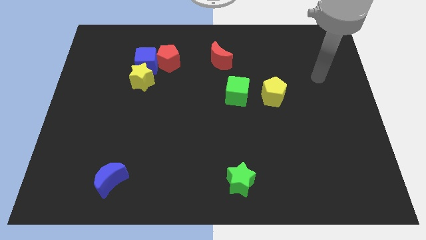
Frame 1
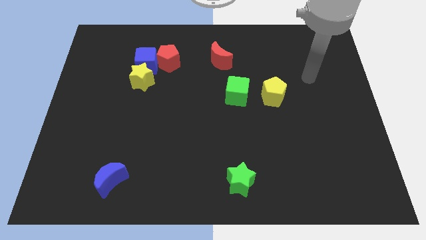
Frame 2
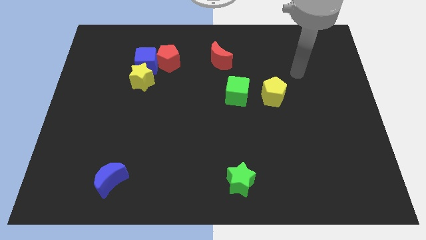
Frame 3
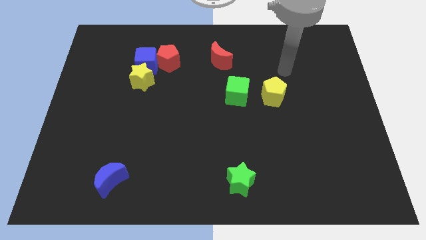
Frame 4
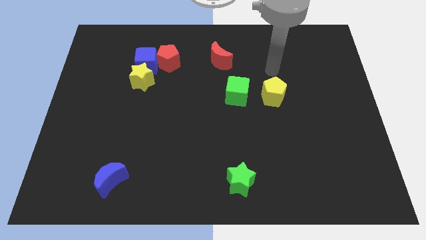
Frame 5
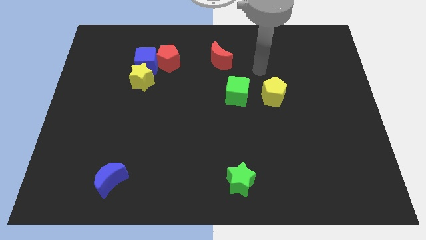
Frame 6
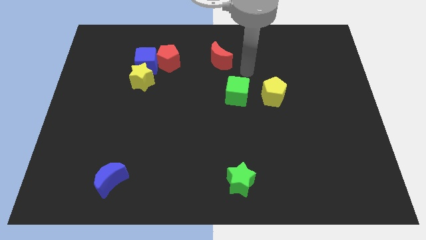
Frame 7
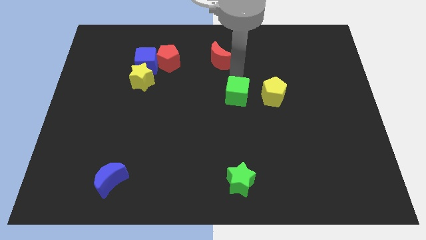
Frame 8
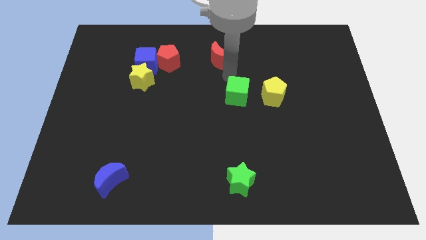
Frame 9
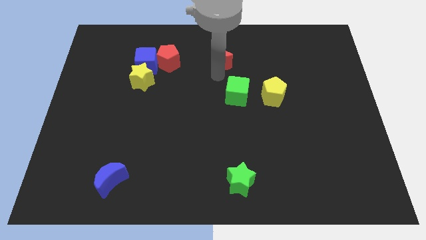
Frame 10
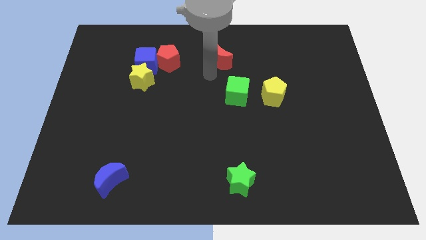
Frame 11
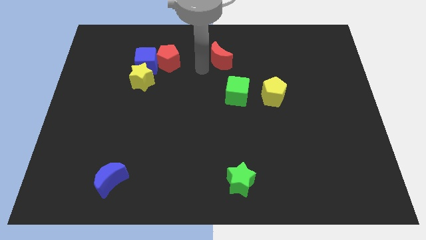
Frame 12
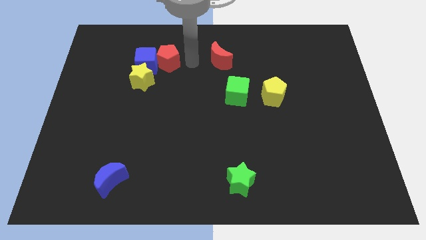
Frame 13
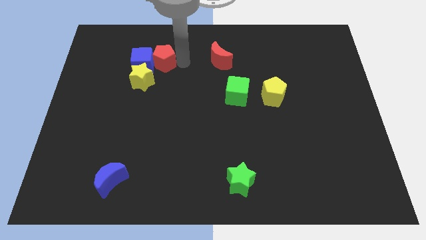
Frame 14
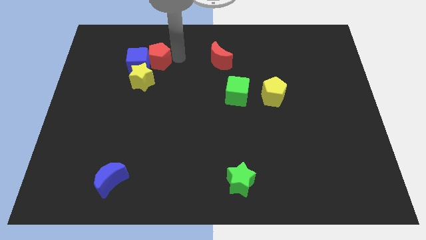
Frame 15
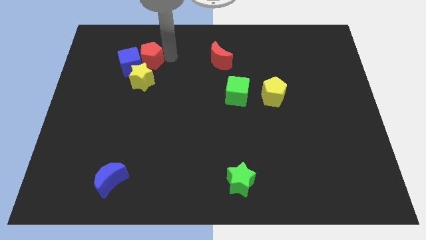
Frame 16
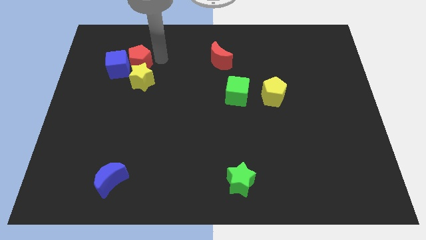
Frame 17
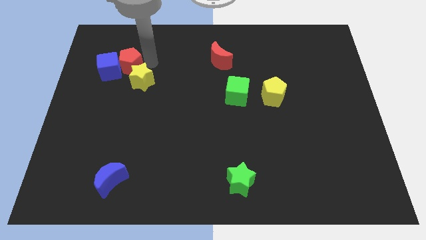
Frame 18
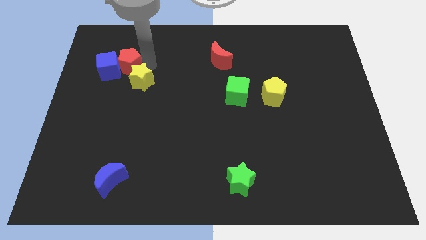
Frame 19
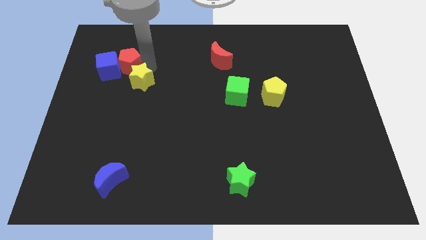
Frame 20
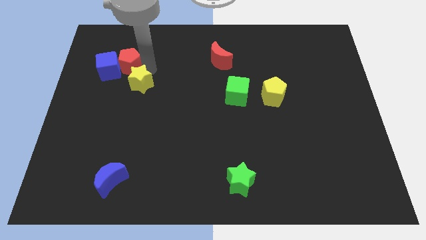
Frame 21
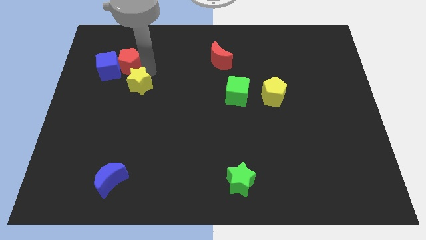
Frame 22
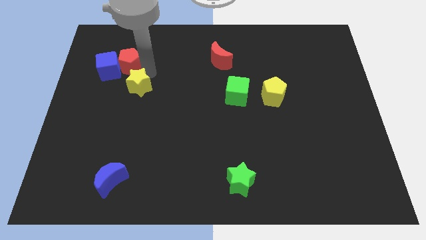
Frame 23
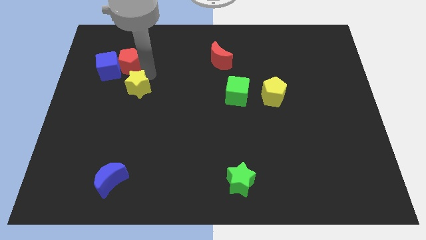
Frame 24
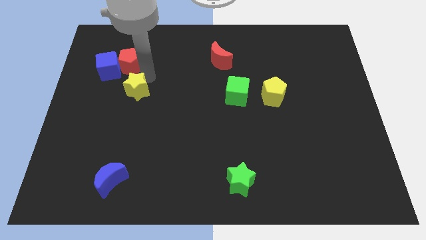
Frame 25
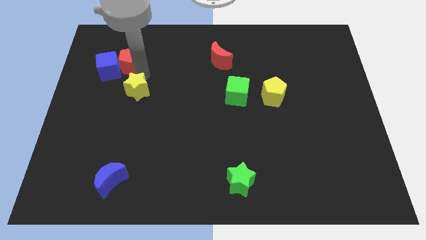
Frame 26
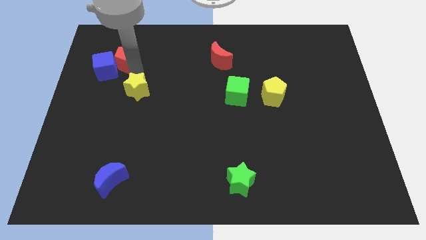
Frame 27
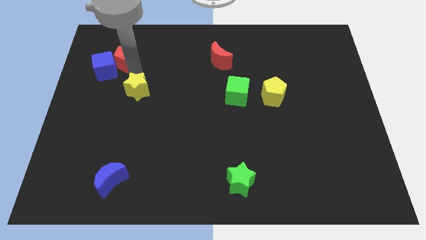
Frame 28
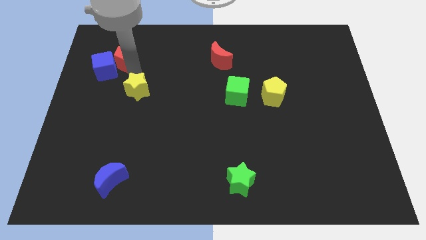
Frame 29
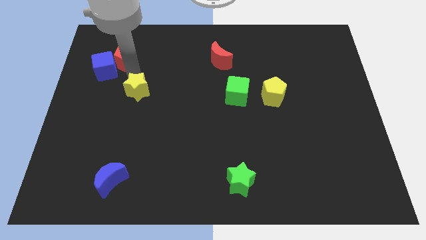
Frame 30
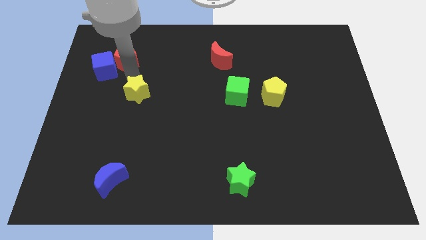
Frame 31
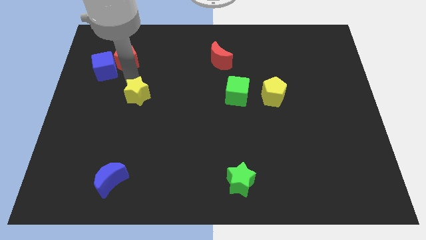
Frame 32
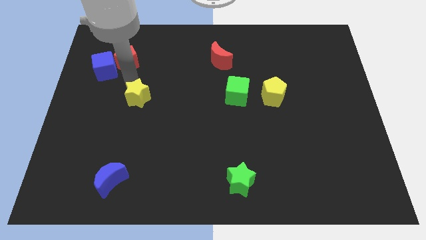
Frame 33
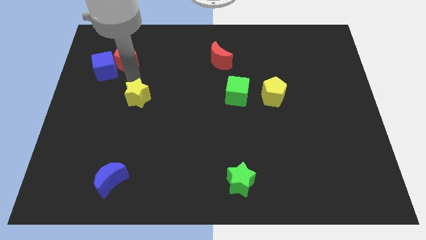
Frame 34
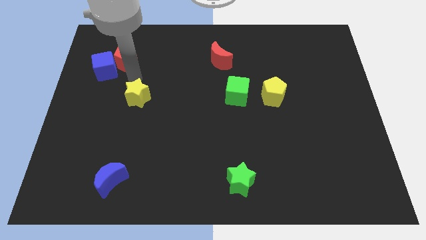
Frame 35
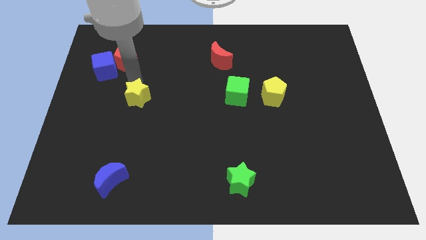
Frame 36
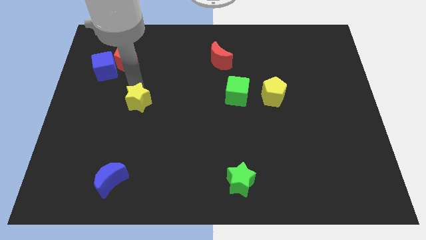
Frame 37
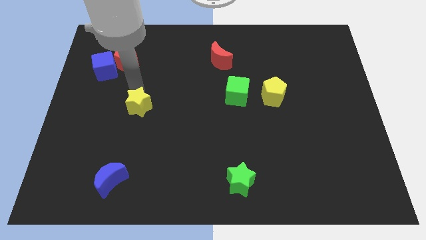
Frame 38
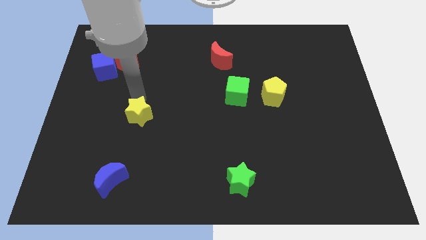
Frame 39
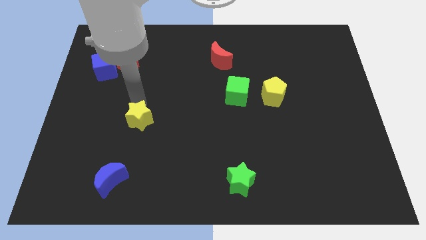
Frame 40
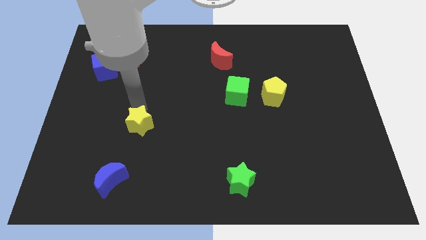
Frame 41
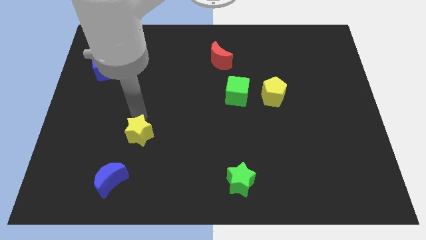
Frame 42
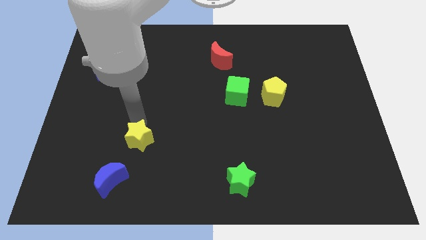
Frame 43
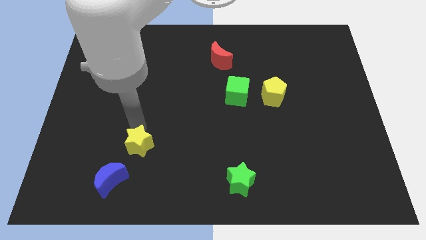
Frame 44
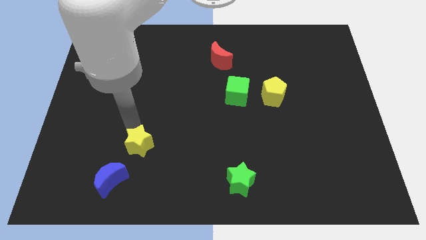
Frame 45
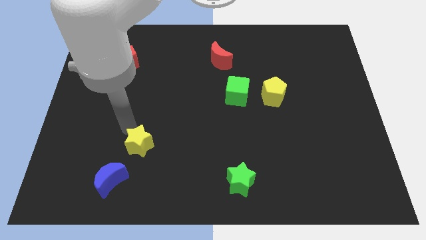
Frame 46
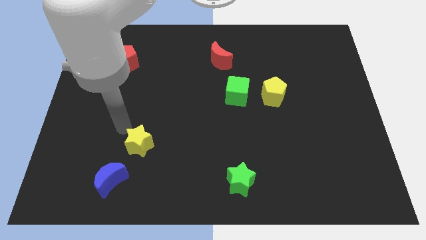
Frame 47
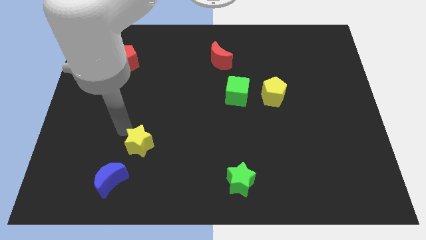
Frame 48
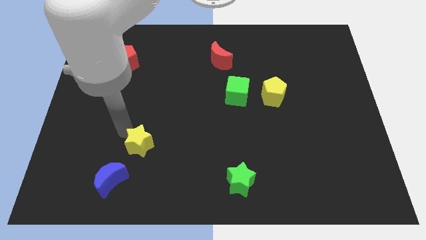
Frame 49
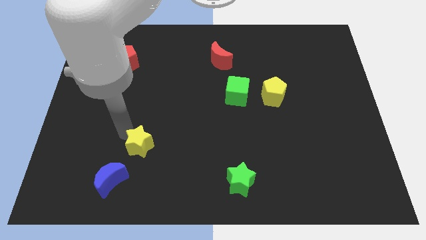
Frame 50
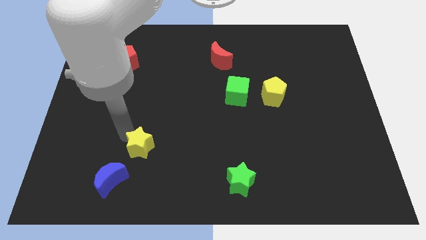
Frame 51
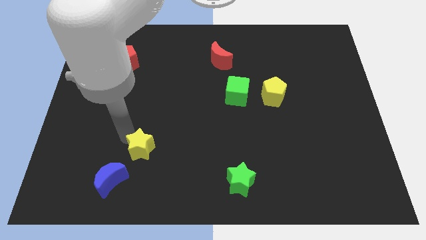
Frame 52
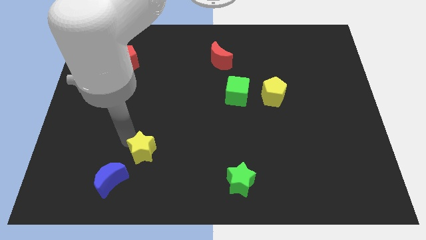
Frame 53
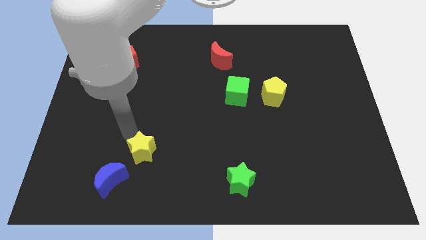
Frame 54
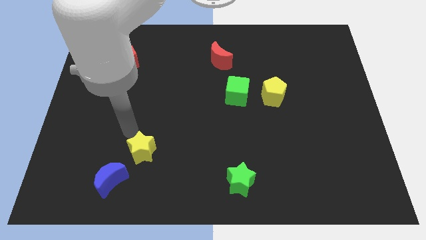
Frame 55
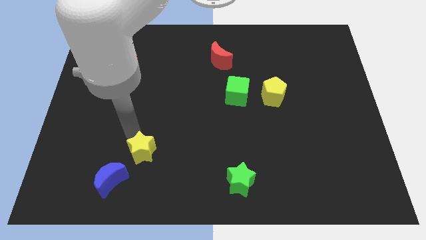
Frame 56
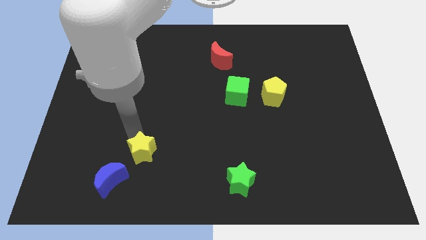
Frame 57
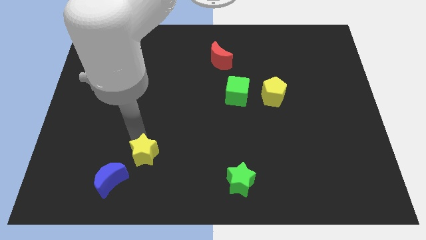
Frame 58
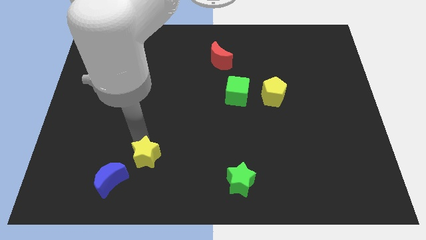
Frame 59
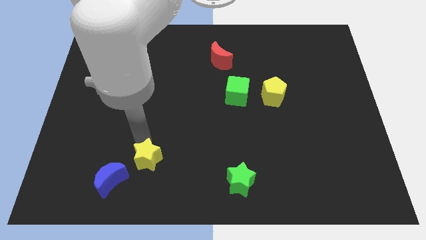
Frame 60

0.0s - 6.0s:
slide the yellow star right of the blue moon

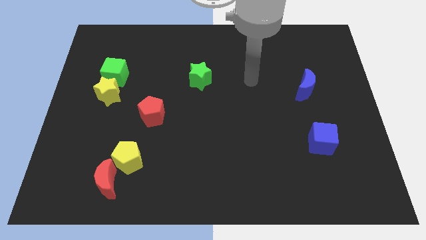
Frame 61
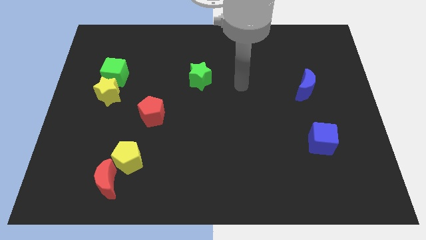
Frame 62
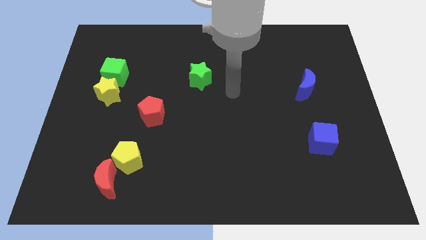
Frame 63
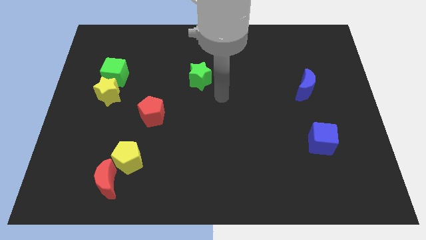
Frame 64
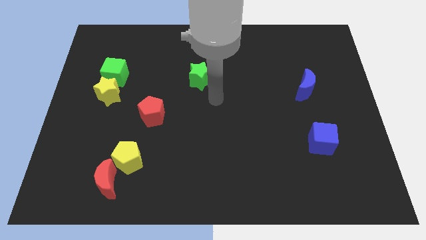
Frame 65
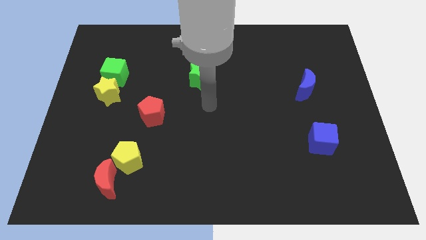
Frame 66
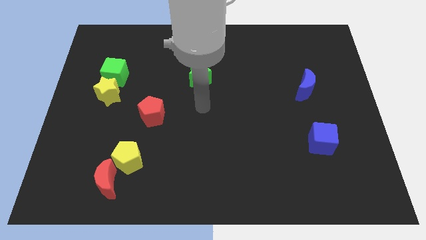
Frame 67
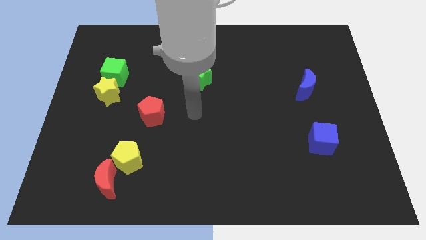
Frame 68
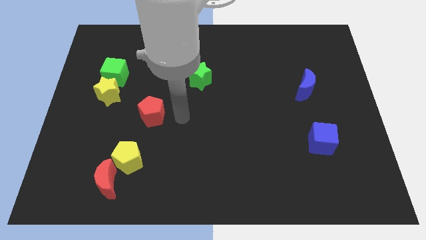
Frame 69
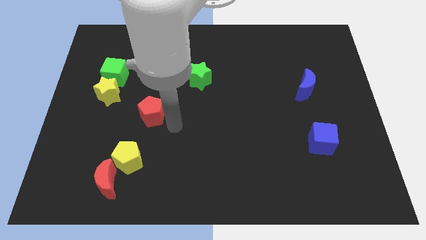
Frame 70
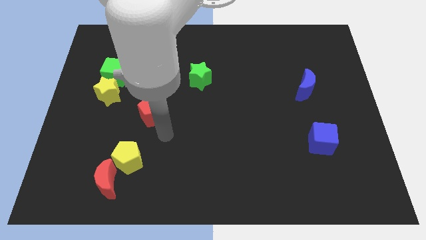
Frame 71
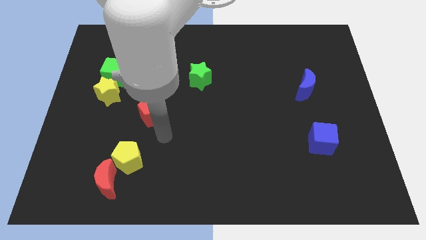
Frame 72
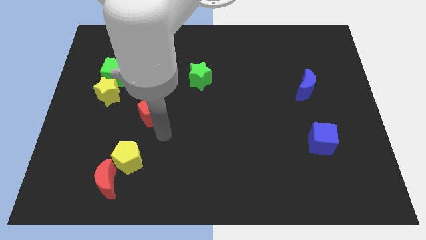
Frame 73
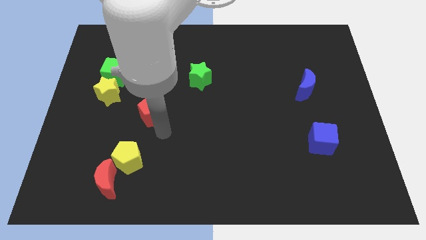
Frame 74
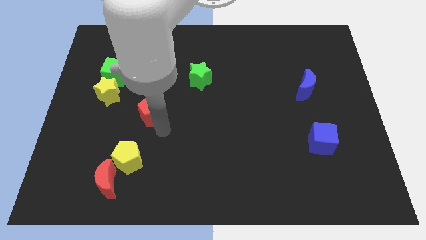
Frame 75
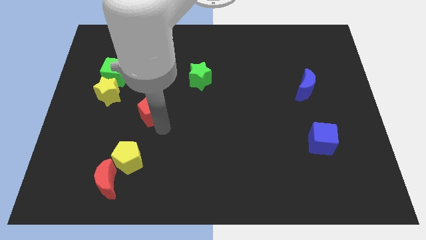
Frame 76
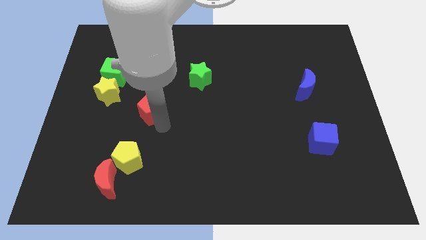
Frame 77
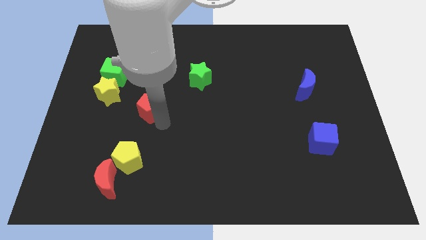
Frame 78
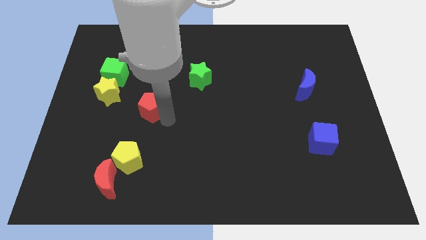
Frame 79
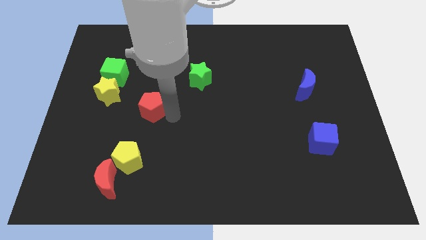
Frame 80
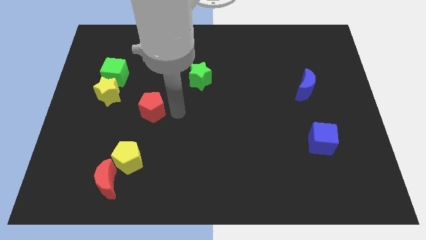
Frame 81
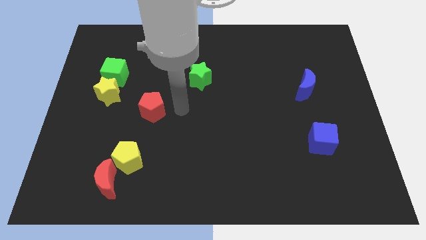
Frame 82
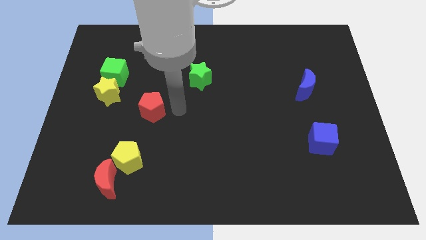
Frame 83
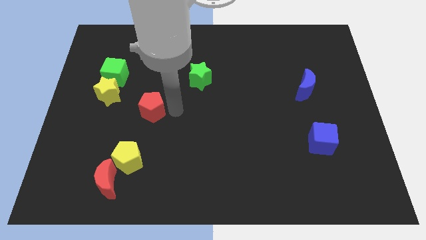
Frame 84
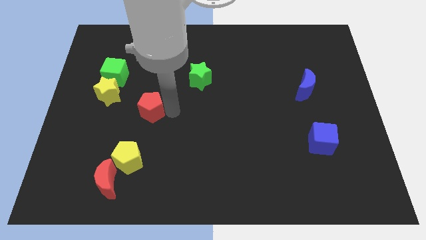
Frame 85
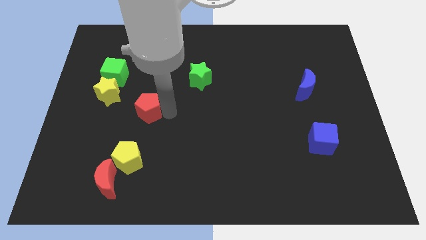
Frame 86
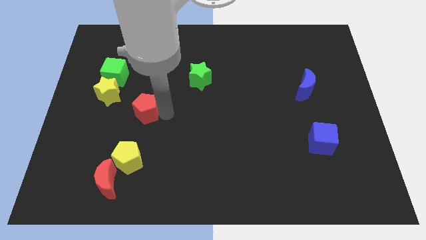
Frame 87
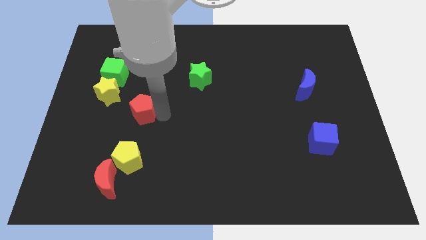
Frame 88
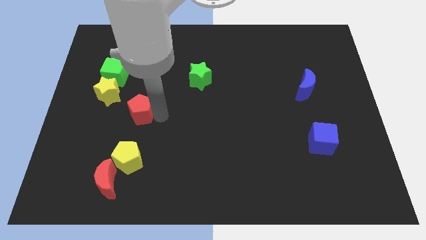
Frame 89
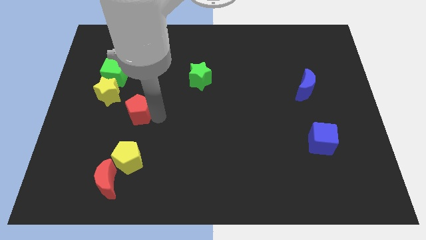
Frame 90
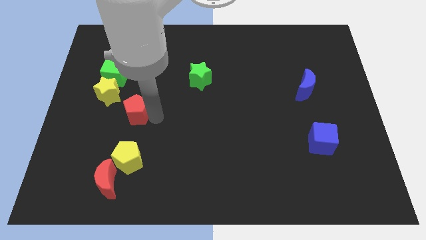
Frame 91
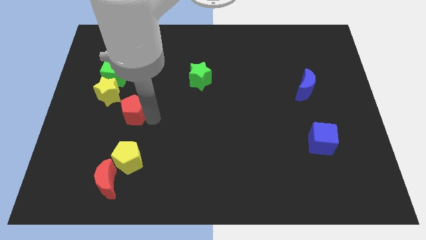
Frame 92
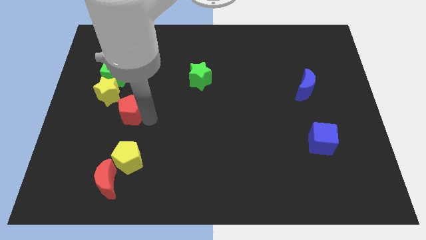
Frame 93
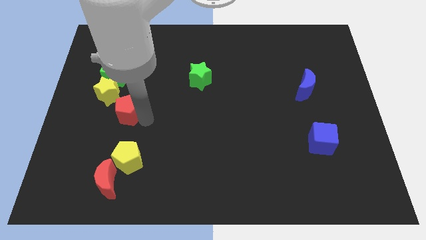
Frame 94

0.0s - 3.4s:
push the red pentagon to the bottom side of the green cube
